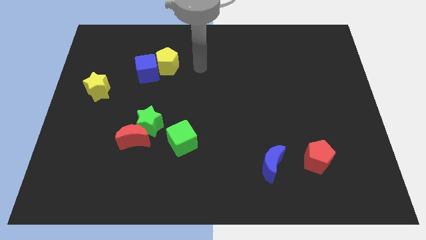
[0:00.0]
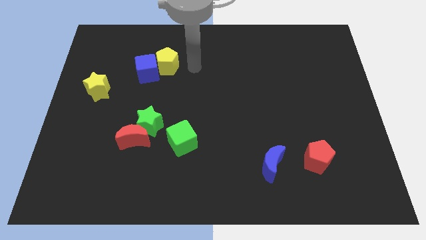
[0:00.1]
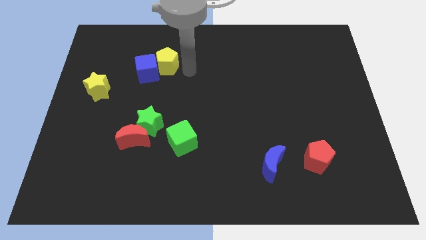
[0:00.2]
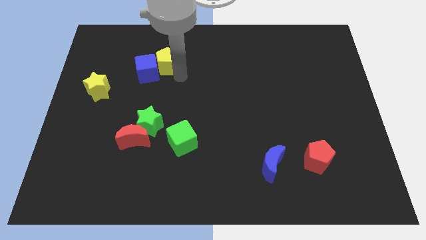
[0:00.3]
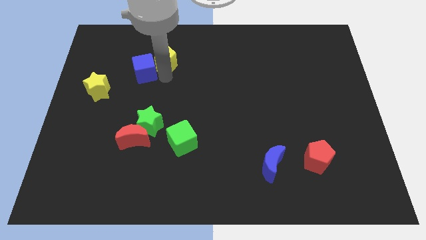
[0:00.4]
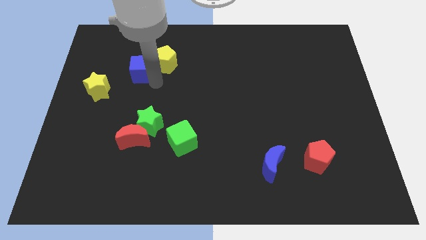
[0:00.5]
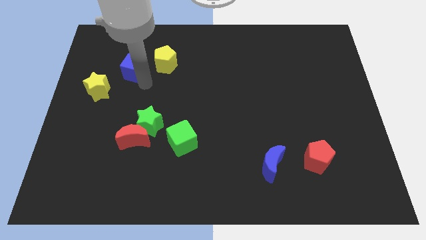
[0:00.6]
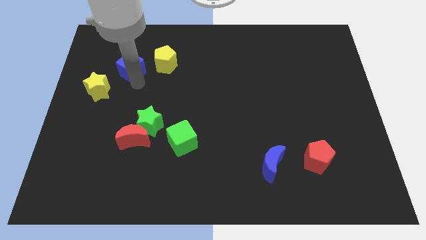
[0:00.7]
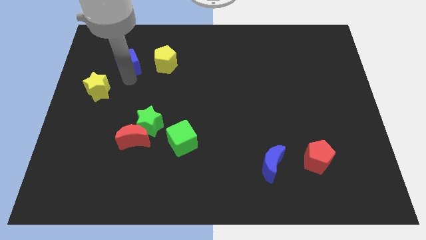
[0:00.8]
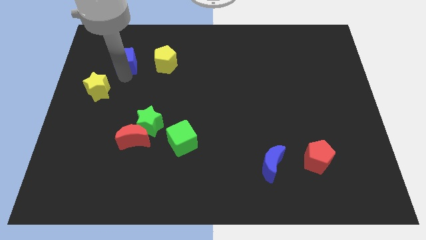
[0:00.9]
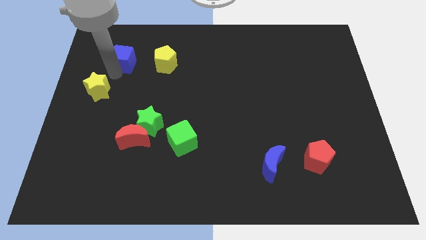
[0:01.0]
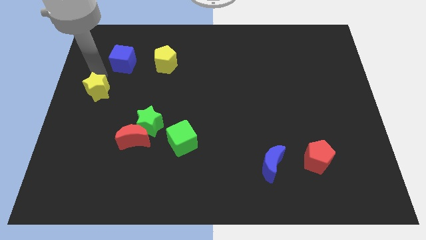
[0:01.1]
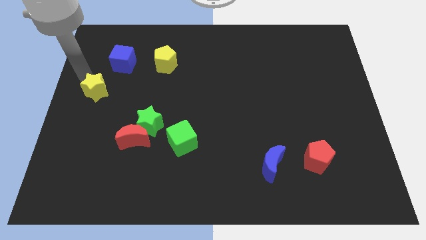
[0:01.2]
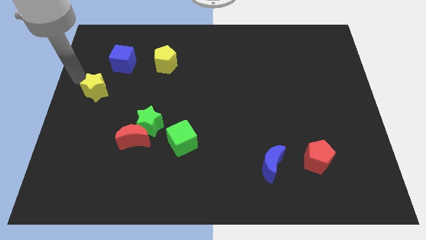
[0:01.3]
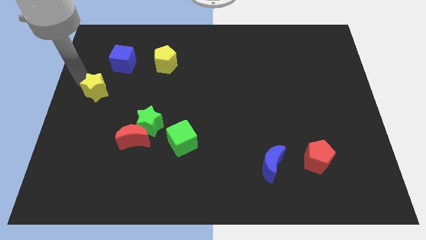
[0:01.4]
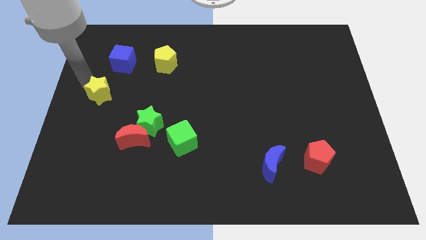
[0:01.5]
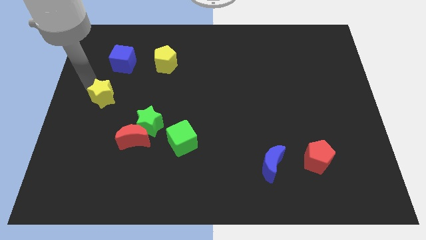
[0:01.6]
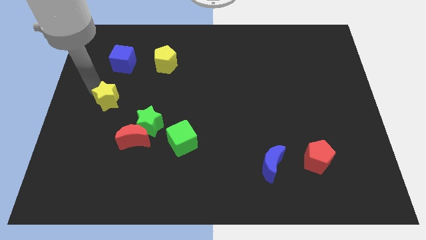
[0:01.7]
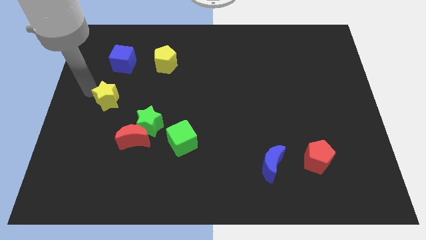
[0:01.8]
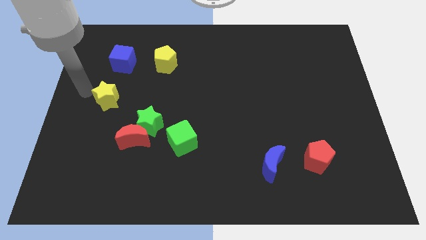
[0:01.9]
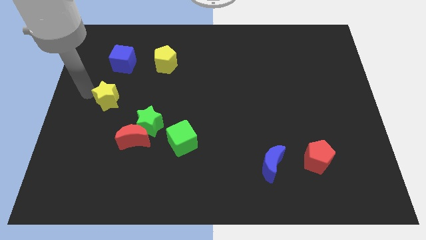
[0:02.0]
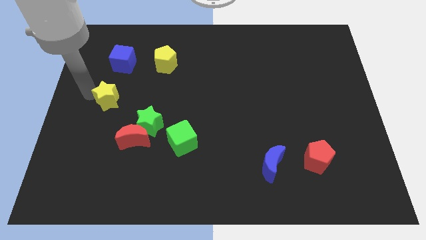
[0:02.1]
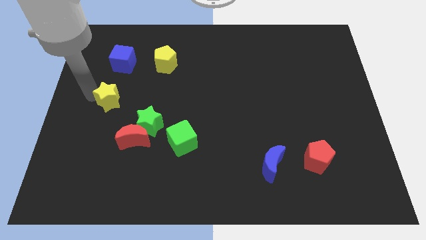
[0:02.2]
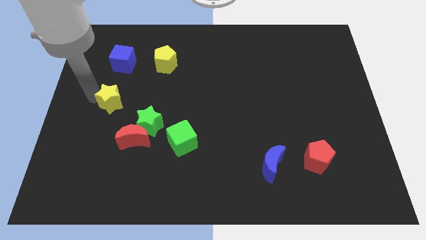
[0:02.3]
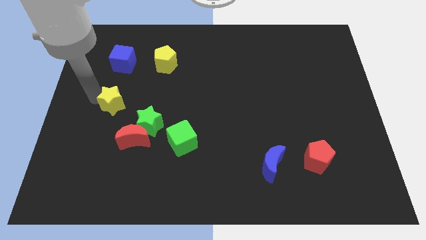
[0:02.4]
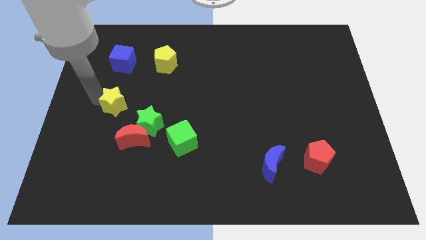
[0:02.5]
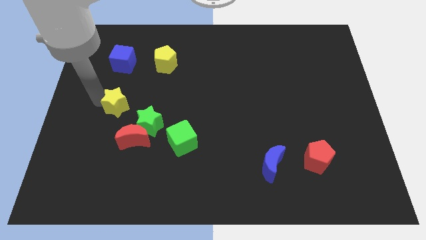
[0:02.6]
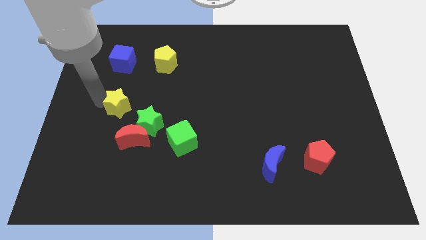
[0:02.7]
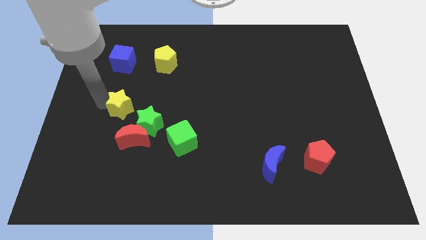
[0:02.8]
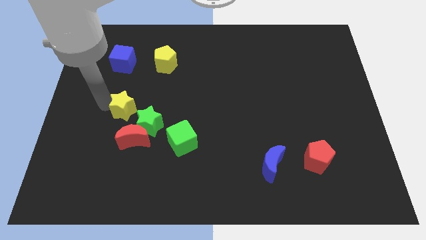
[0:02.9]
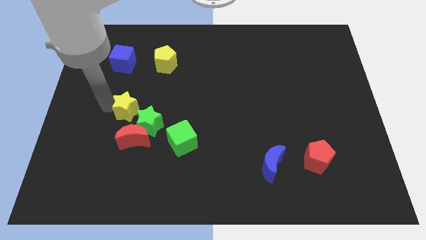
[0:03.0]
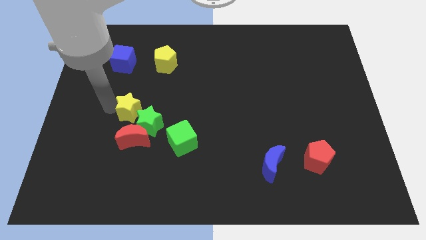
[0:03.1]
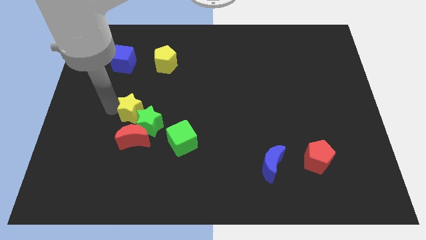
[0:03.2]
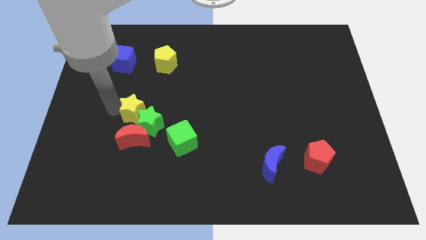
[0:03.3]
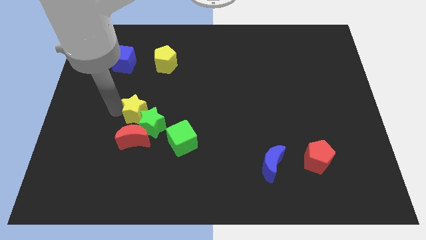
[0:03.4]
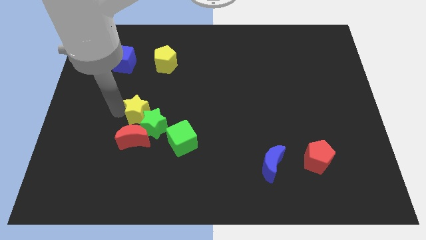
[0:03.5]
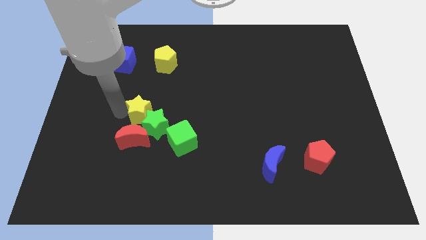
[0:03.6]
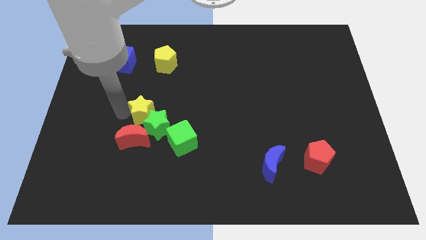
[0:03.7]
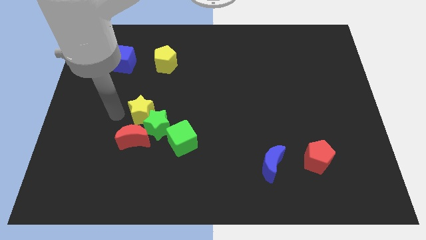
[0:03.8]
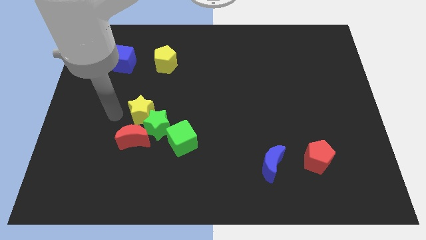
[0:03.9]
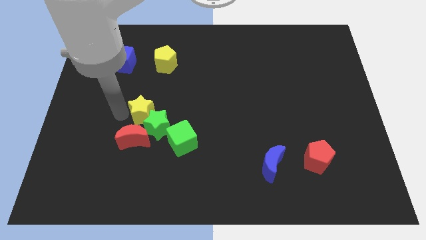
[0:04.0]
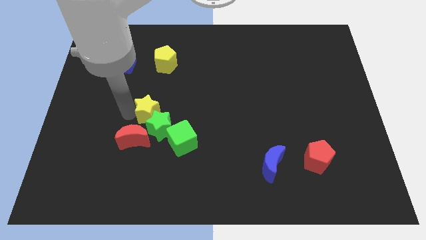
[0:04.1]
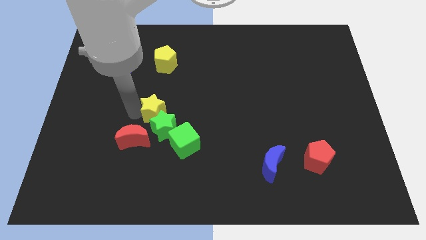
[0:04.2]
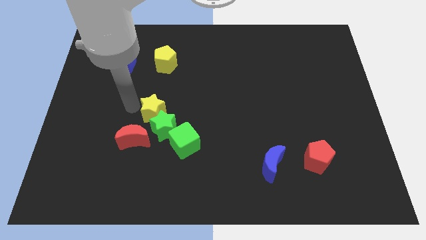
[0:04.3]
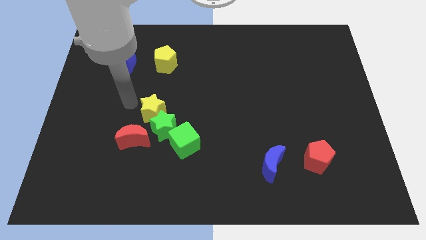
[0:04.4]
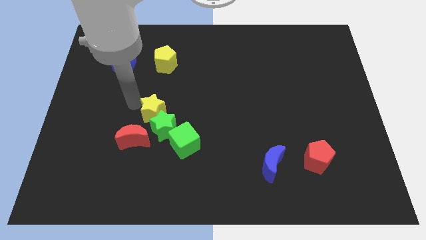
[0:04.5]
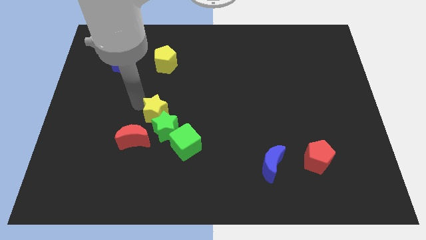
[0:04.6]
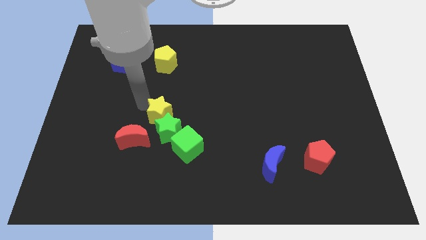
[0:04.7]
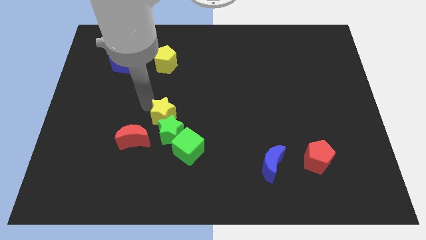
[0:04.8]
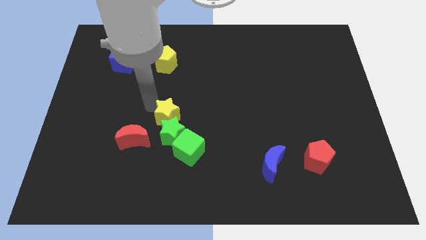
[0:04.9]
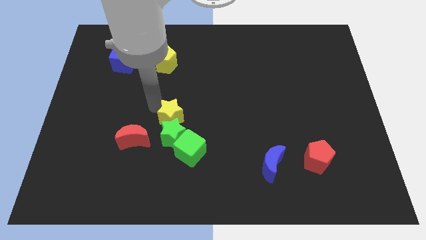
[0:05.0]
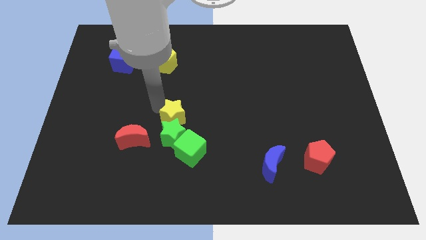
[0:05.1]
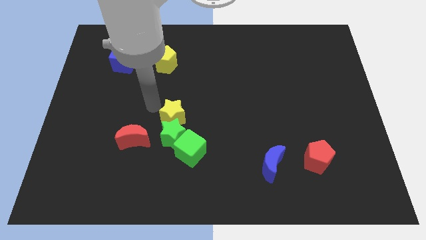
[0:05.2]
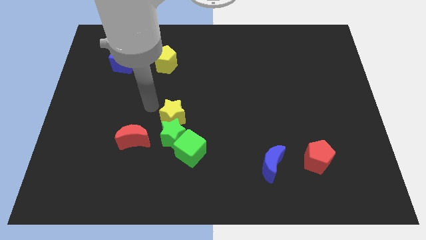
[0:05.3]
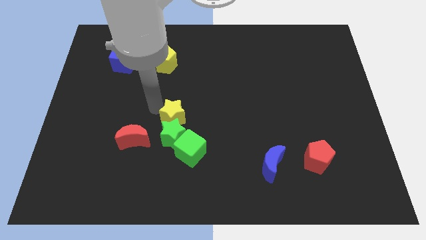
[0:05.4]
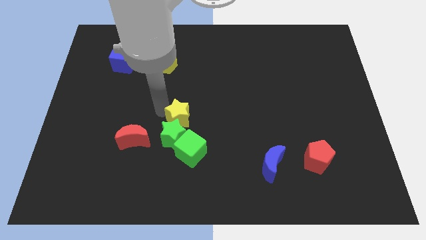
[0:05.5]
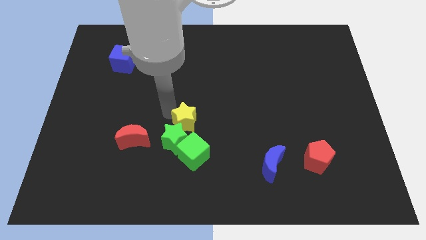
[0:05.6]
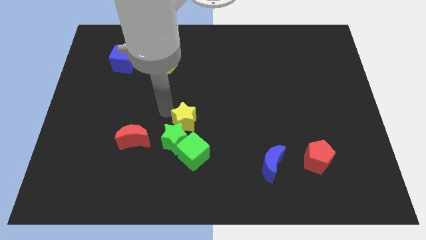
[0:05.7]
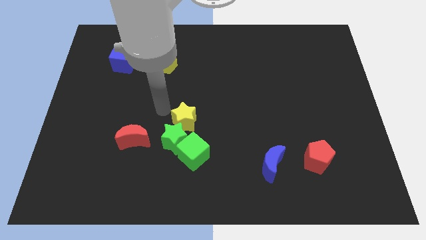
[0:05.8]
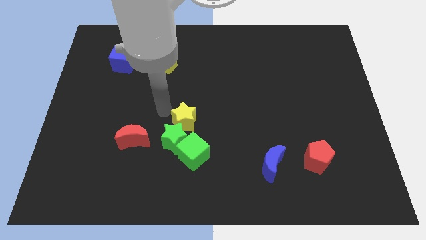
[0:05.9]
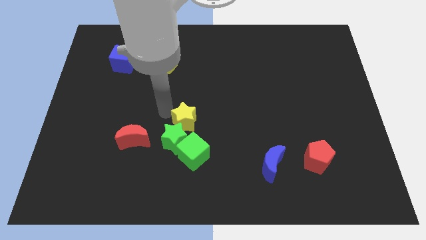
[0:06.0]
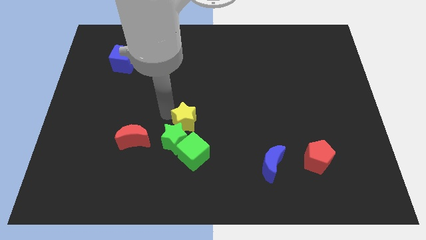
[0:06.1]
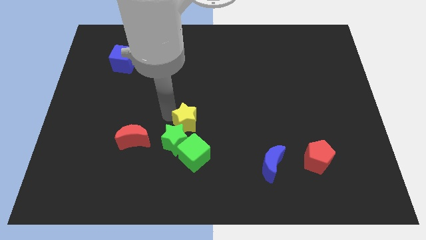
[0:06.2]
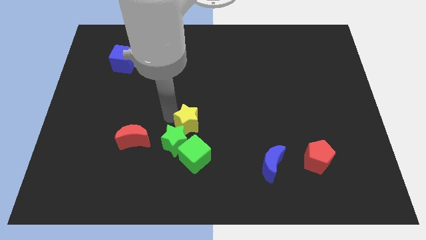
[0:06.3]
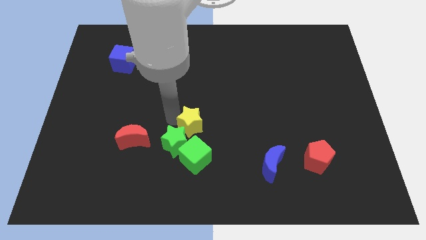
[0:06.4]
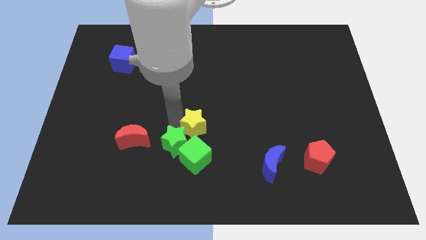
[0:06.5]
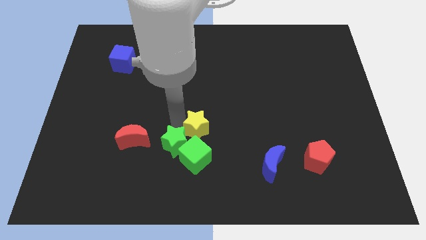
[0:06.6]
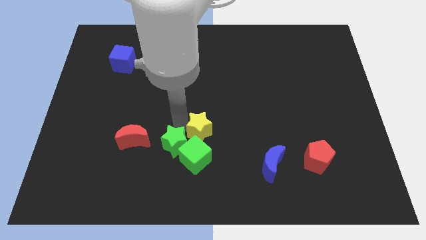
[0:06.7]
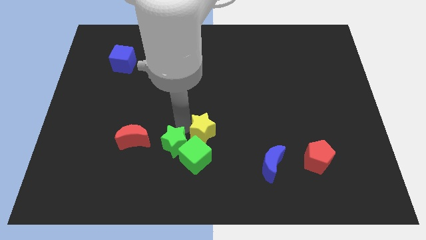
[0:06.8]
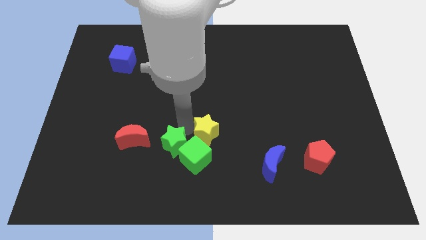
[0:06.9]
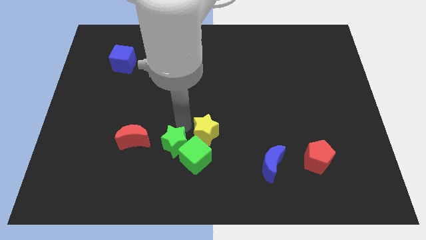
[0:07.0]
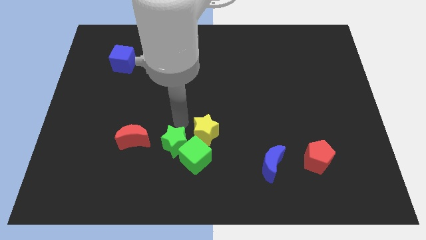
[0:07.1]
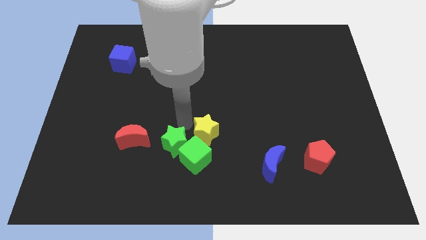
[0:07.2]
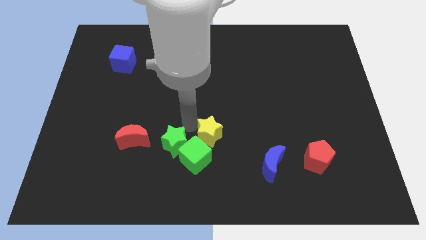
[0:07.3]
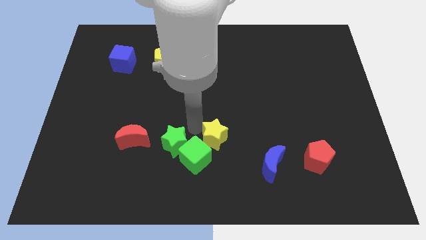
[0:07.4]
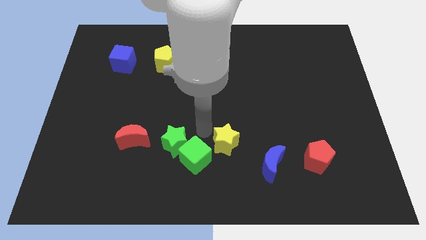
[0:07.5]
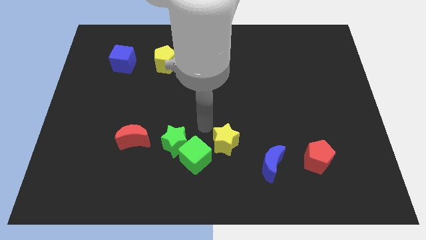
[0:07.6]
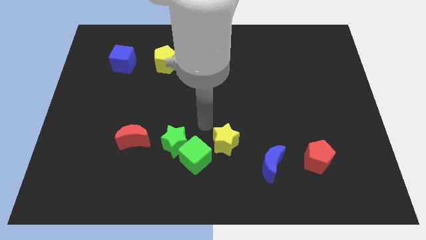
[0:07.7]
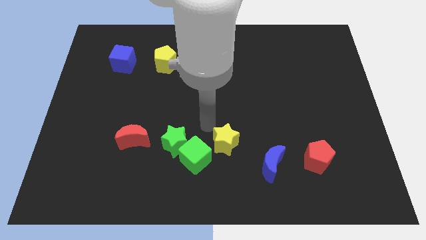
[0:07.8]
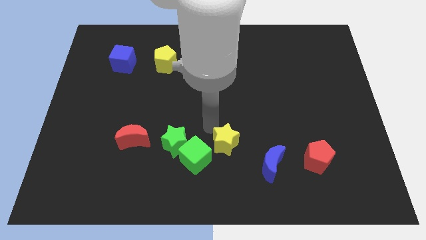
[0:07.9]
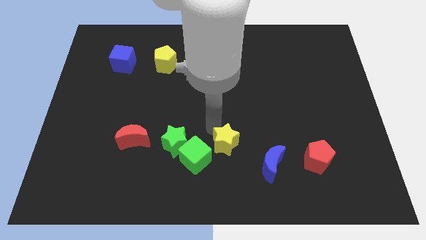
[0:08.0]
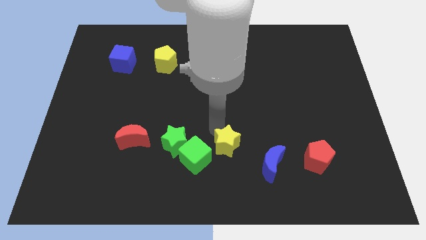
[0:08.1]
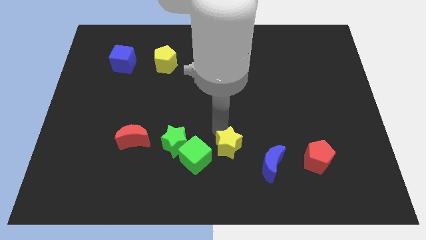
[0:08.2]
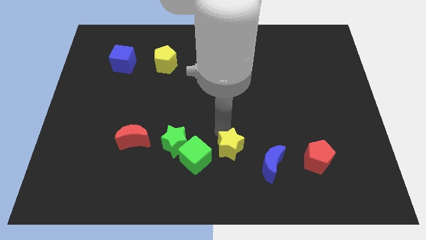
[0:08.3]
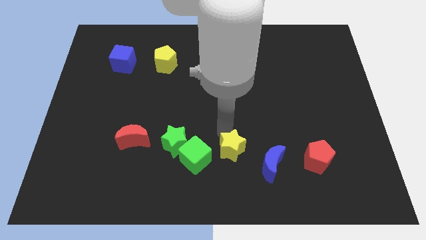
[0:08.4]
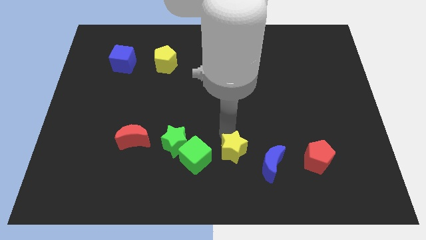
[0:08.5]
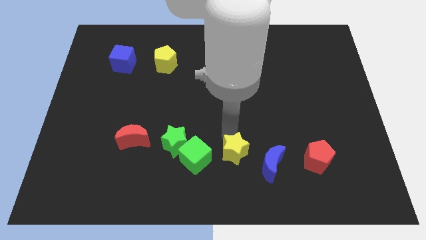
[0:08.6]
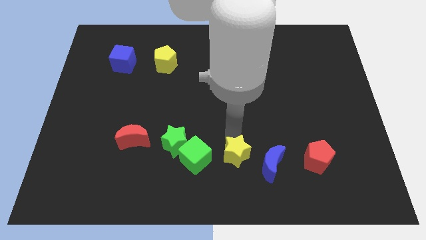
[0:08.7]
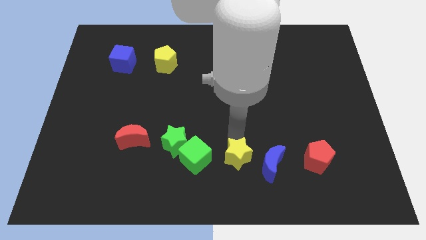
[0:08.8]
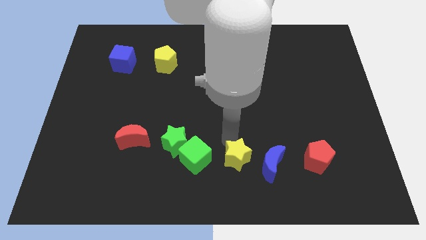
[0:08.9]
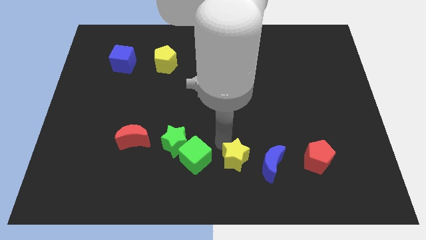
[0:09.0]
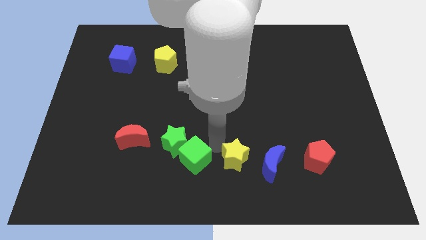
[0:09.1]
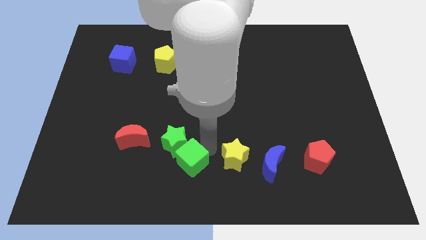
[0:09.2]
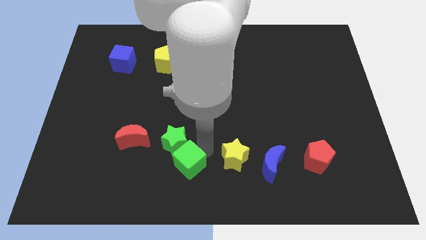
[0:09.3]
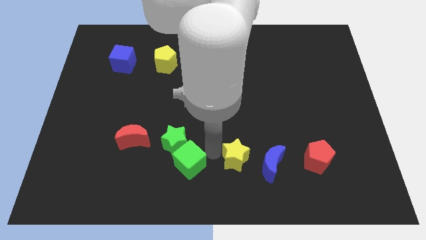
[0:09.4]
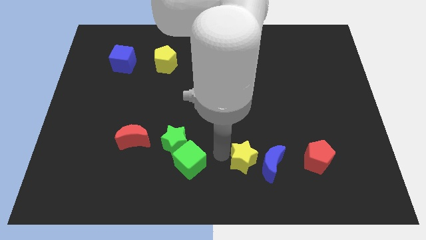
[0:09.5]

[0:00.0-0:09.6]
push the yellow star to the blue moon
